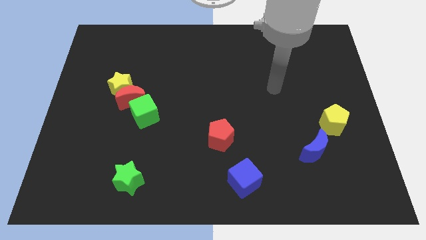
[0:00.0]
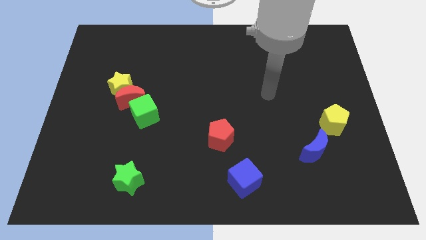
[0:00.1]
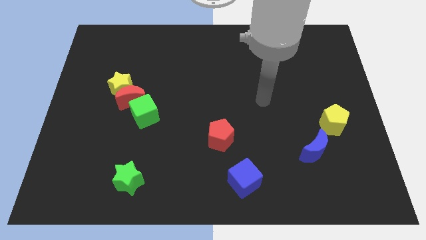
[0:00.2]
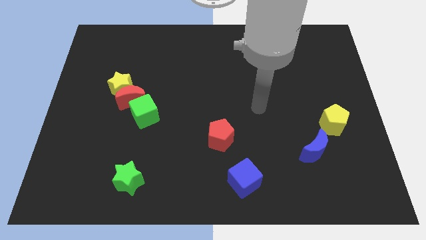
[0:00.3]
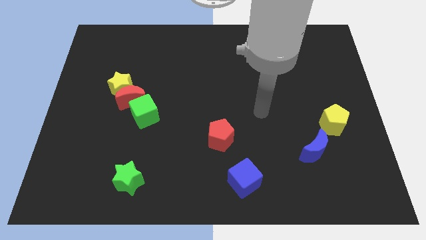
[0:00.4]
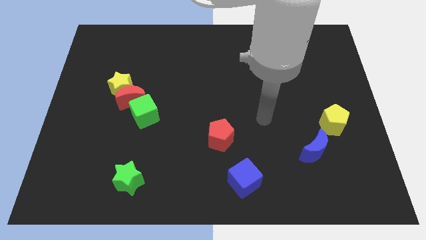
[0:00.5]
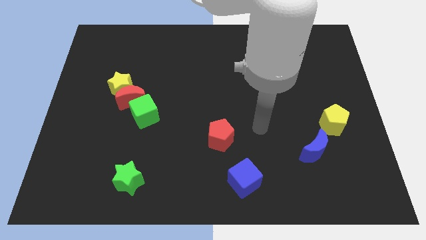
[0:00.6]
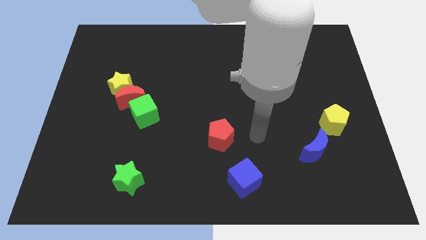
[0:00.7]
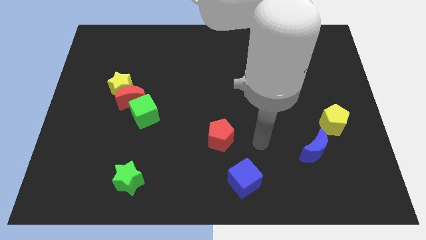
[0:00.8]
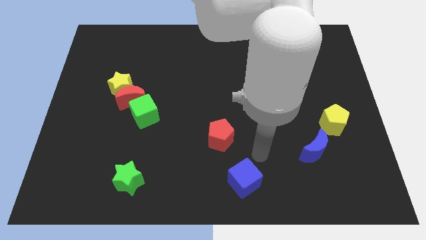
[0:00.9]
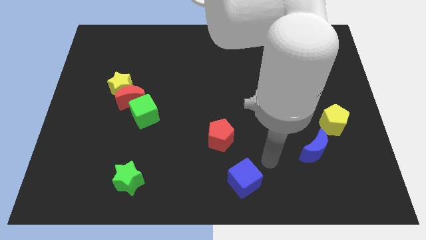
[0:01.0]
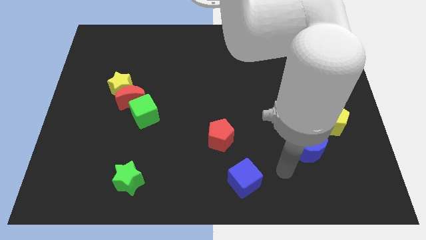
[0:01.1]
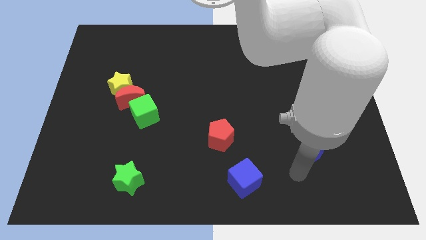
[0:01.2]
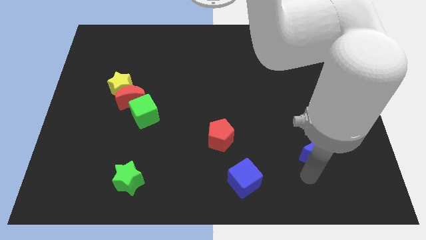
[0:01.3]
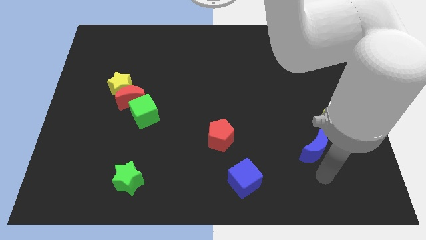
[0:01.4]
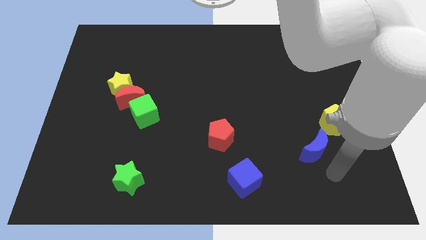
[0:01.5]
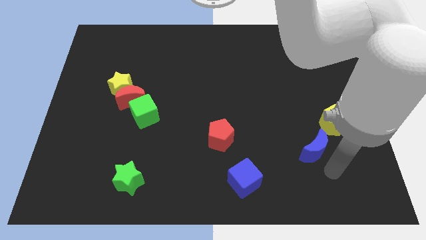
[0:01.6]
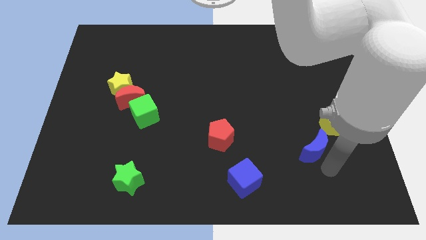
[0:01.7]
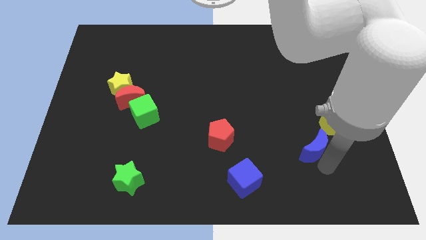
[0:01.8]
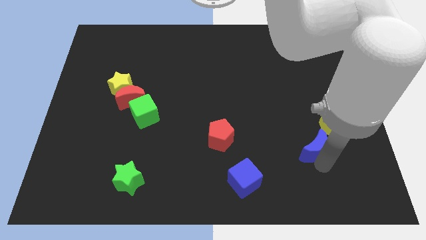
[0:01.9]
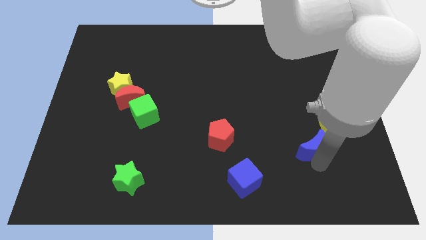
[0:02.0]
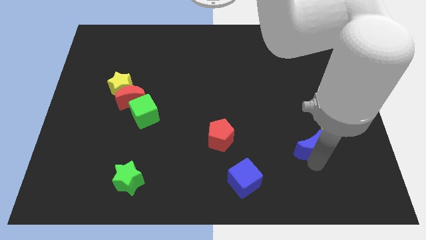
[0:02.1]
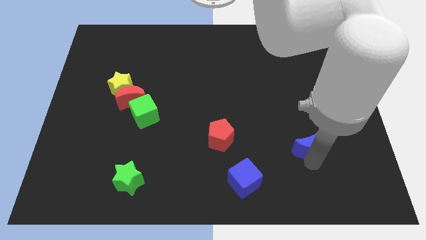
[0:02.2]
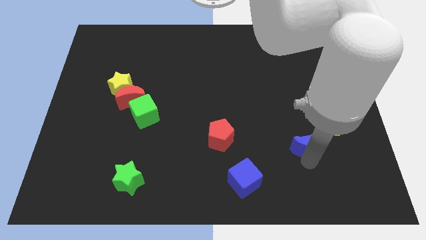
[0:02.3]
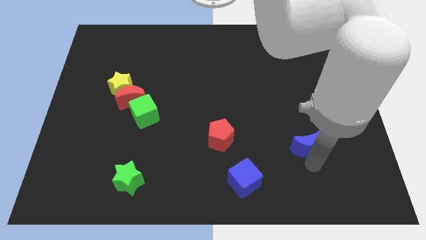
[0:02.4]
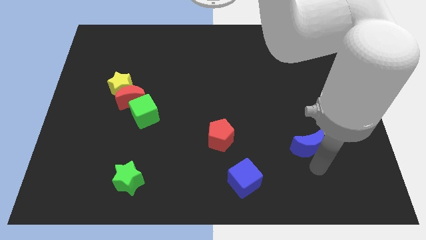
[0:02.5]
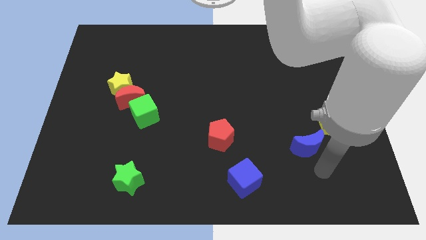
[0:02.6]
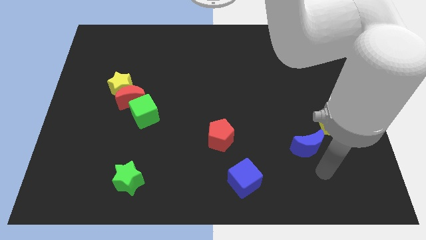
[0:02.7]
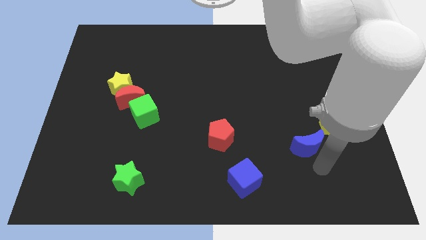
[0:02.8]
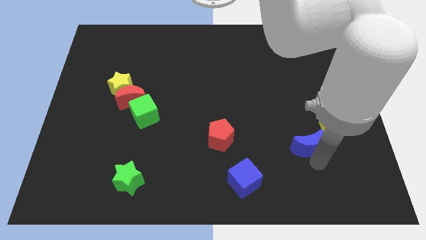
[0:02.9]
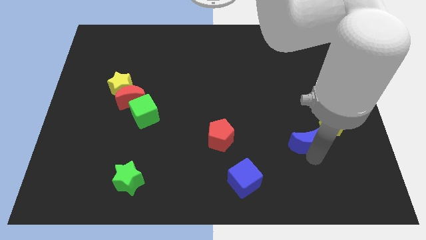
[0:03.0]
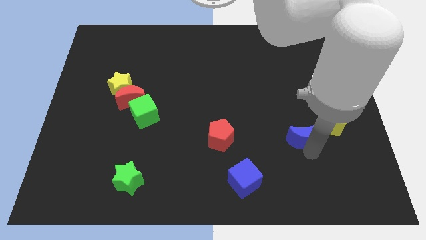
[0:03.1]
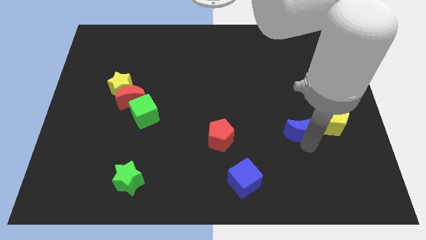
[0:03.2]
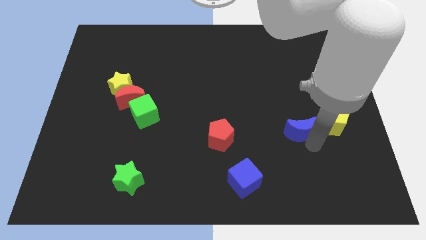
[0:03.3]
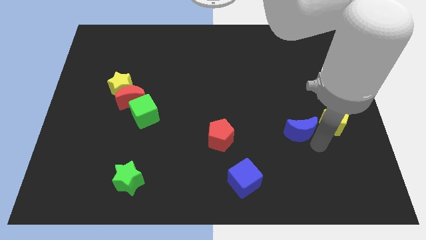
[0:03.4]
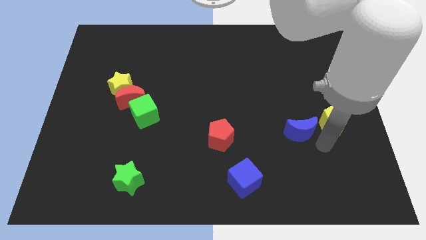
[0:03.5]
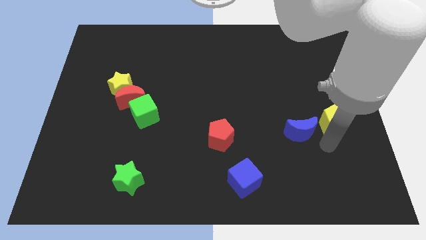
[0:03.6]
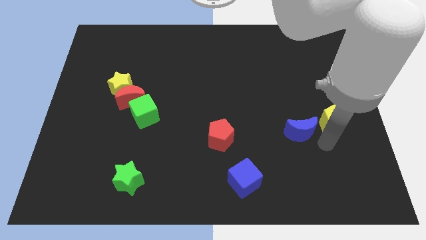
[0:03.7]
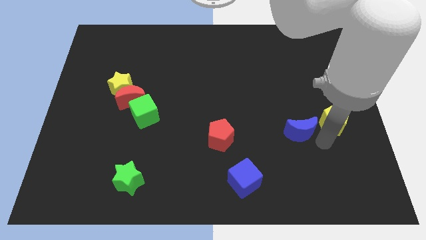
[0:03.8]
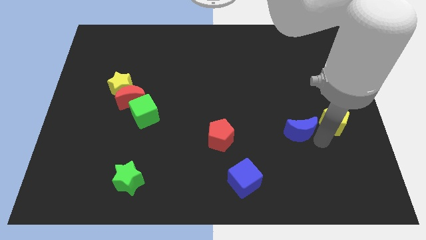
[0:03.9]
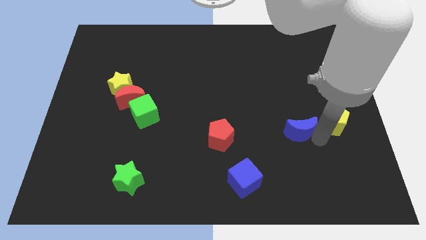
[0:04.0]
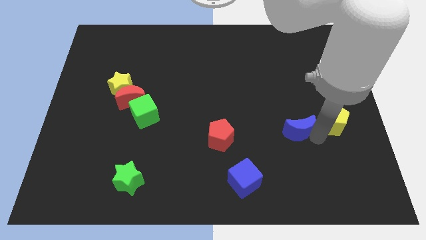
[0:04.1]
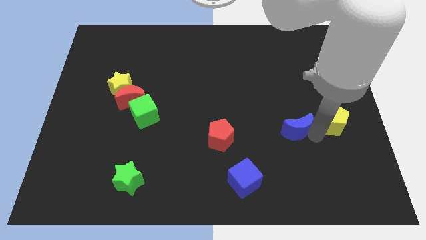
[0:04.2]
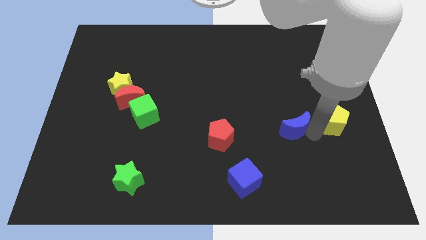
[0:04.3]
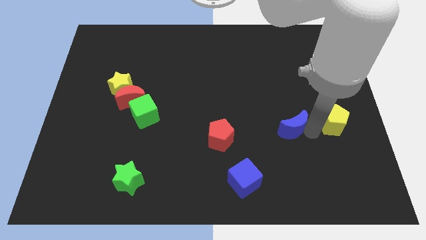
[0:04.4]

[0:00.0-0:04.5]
slightly move the blue moon upwards and to the left diagonally

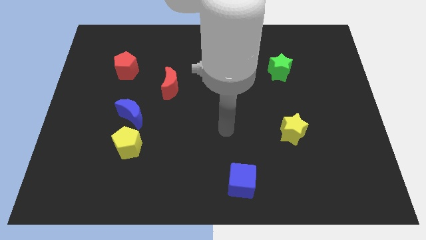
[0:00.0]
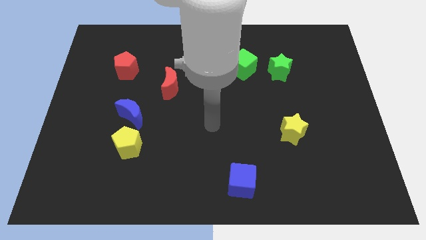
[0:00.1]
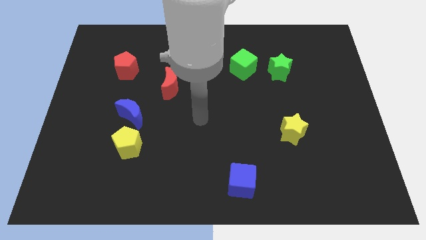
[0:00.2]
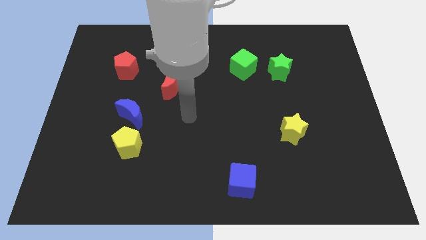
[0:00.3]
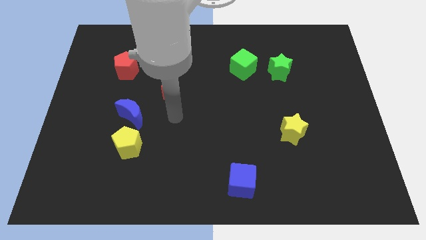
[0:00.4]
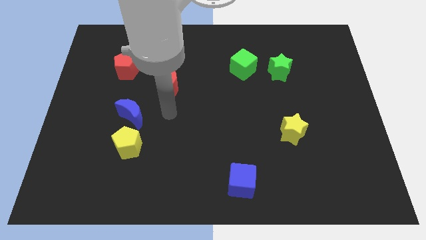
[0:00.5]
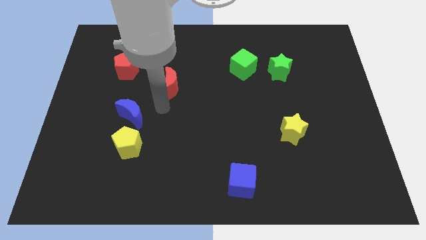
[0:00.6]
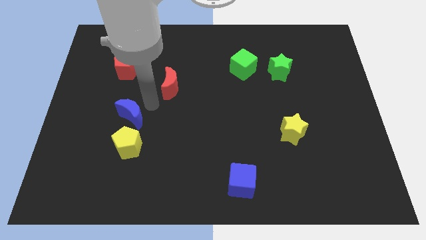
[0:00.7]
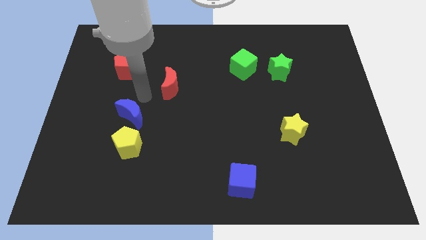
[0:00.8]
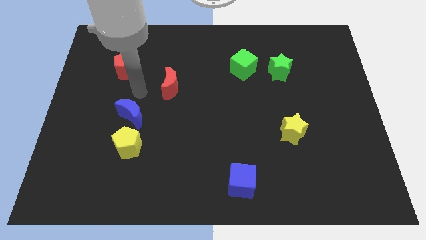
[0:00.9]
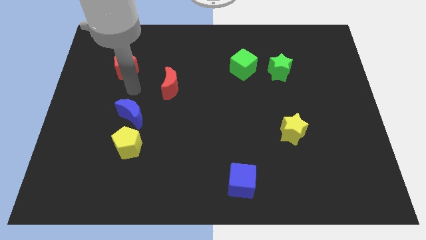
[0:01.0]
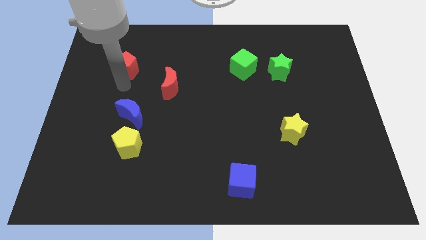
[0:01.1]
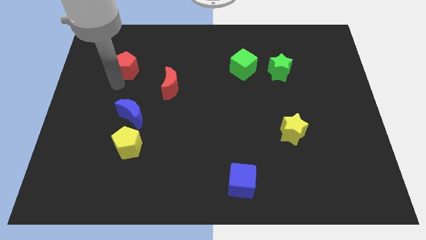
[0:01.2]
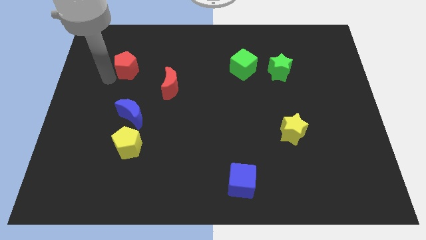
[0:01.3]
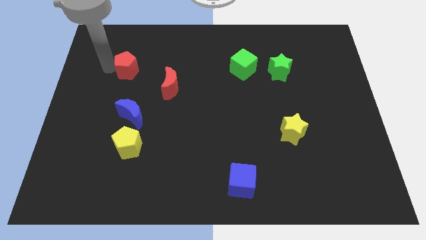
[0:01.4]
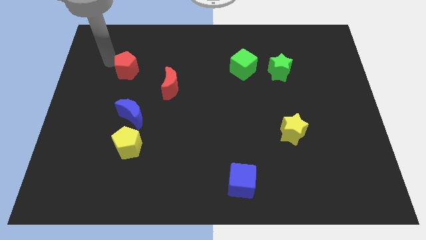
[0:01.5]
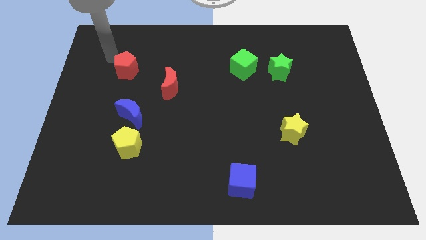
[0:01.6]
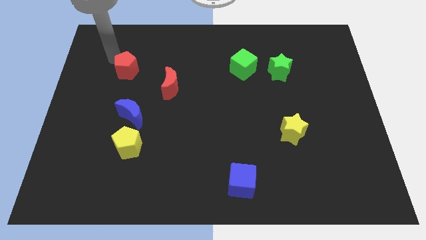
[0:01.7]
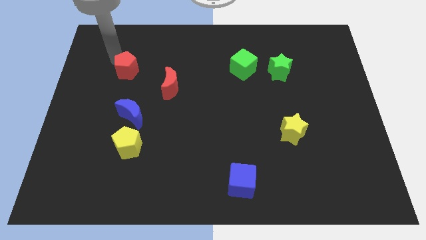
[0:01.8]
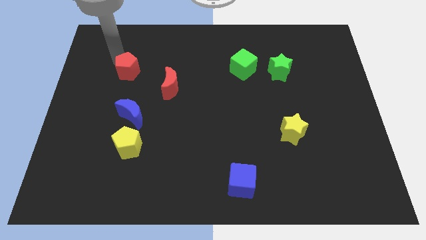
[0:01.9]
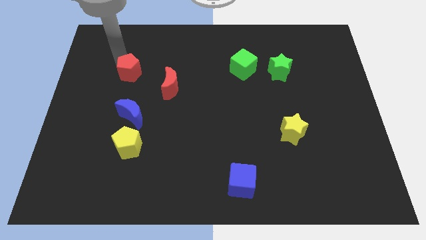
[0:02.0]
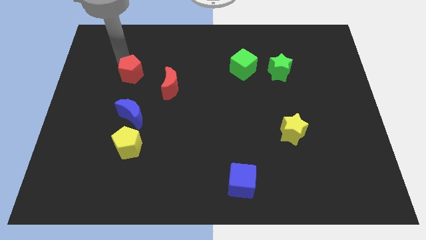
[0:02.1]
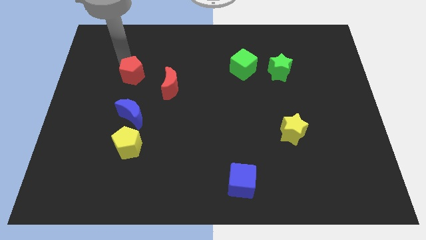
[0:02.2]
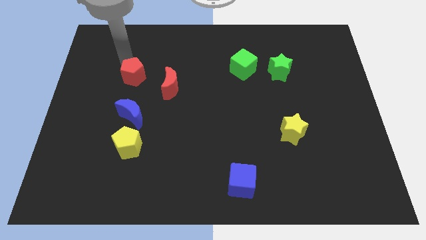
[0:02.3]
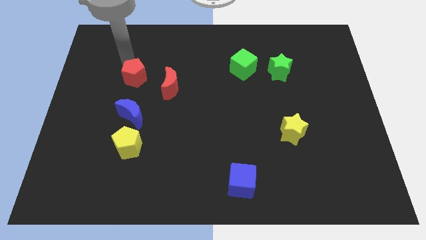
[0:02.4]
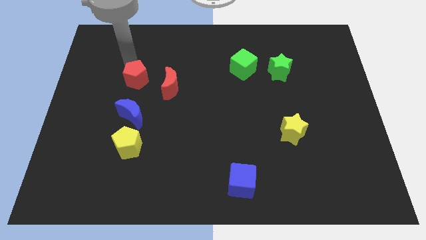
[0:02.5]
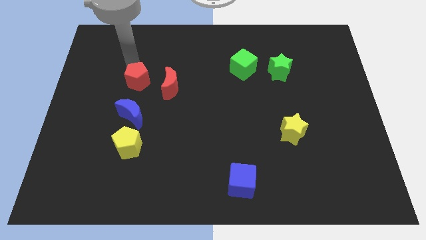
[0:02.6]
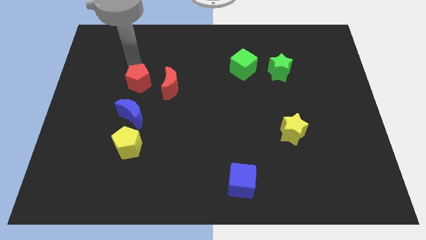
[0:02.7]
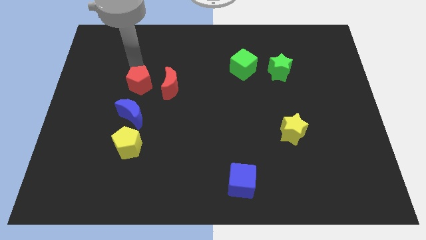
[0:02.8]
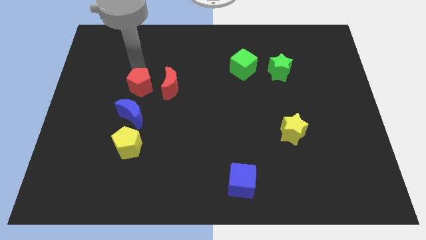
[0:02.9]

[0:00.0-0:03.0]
push the red pentagon a little bit diagonally downwards and right

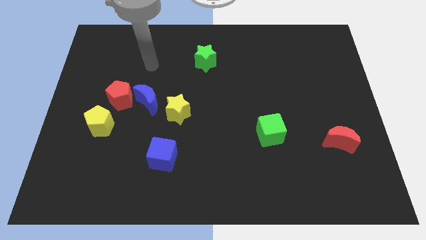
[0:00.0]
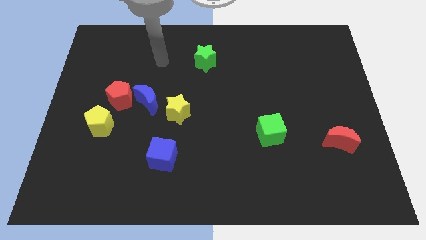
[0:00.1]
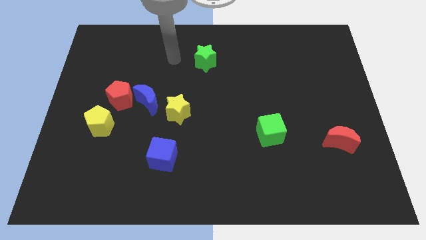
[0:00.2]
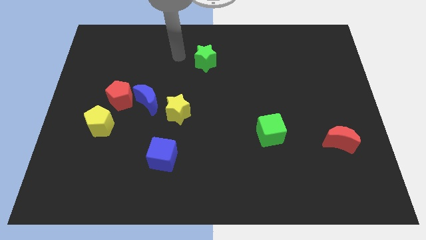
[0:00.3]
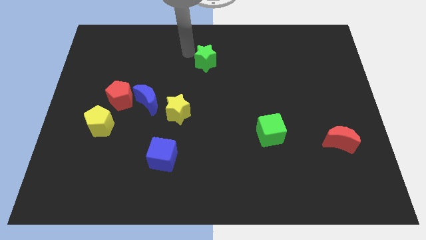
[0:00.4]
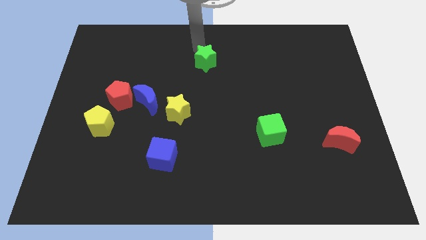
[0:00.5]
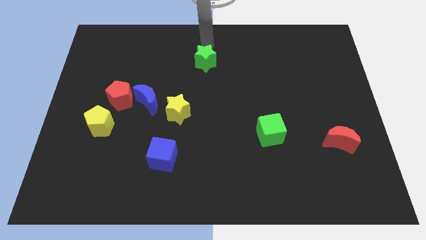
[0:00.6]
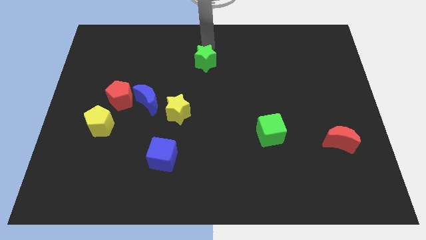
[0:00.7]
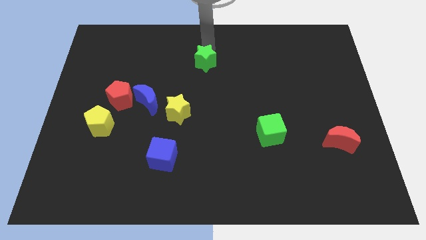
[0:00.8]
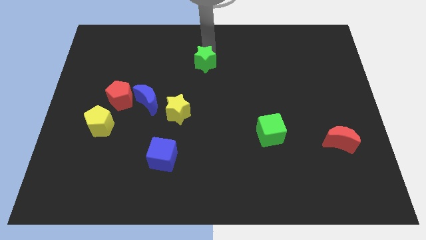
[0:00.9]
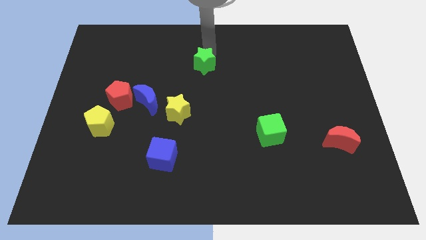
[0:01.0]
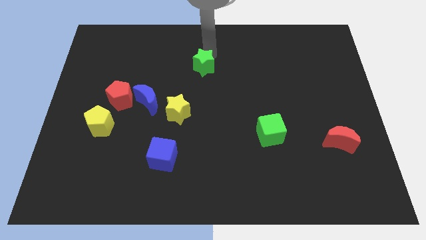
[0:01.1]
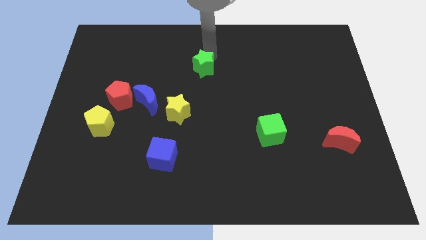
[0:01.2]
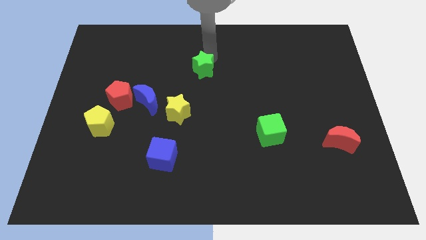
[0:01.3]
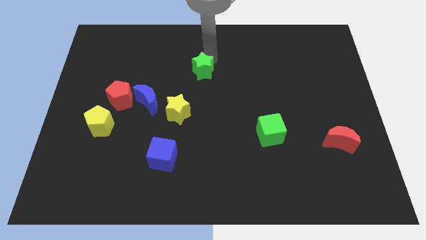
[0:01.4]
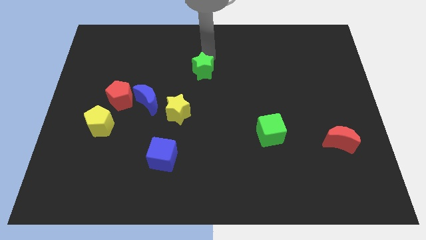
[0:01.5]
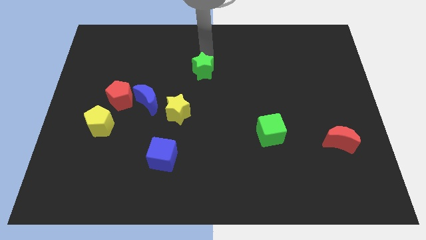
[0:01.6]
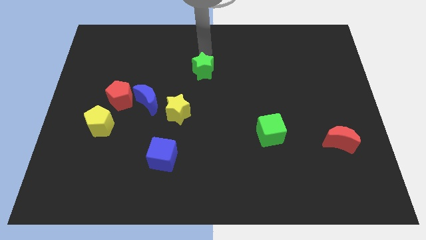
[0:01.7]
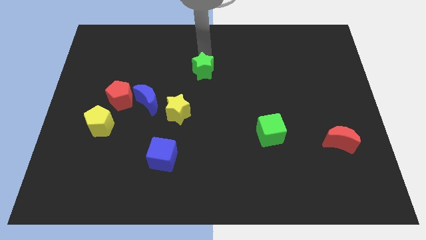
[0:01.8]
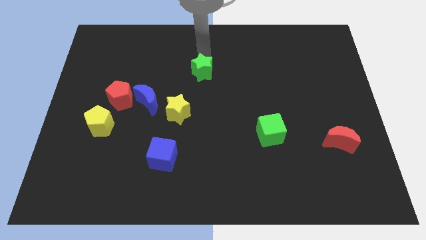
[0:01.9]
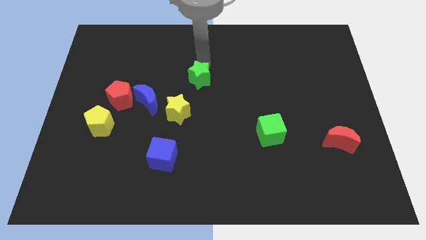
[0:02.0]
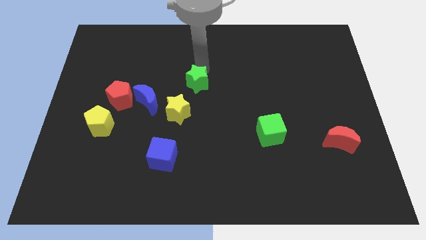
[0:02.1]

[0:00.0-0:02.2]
slightly slide the green star downwards
